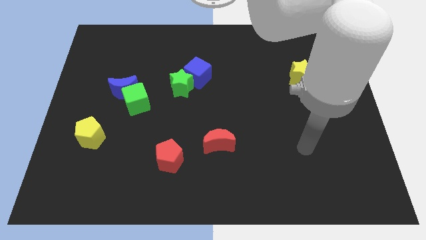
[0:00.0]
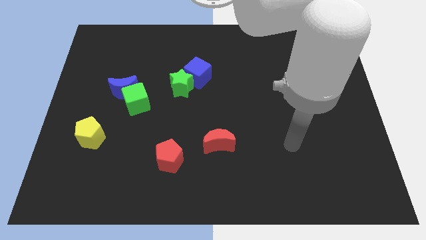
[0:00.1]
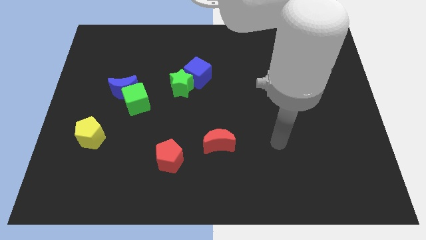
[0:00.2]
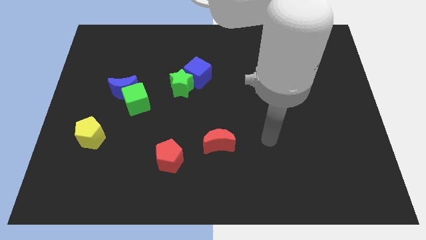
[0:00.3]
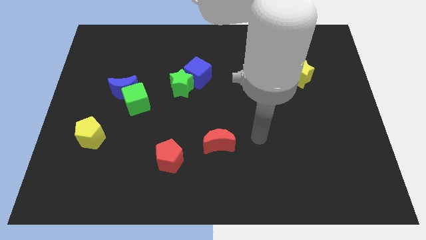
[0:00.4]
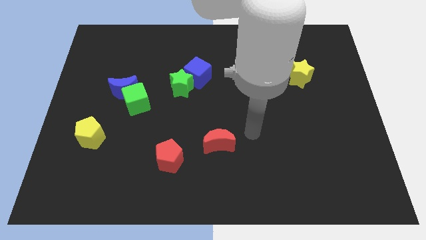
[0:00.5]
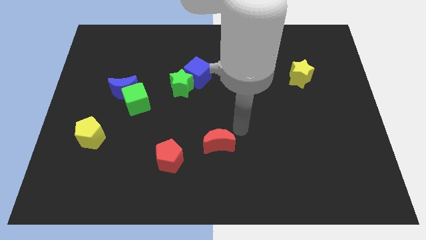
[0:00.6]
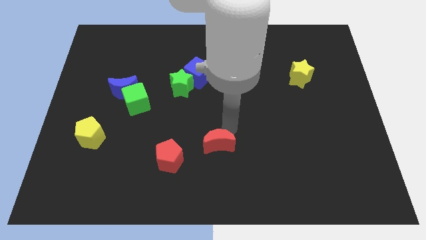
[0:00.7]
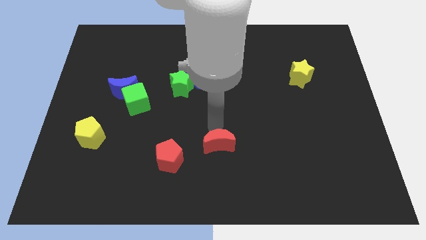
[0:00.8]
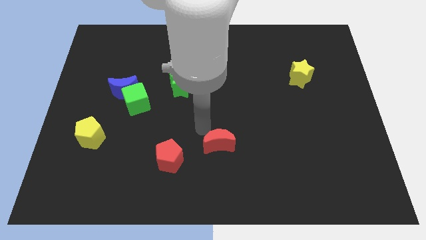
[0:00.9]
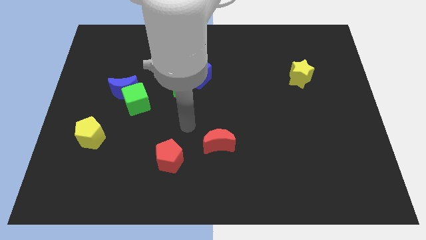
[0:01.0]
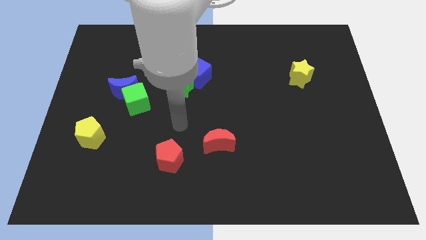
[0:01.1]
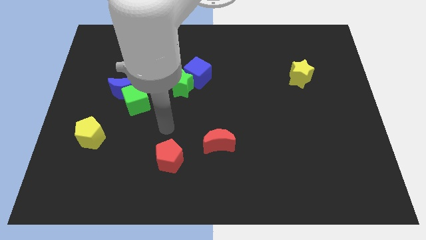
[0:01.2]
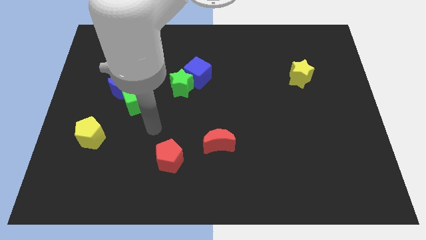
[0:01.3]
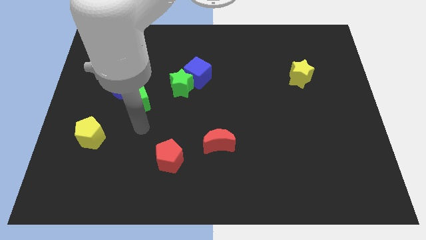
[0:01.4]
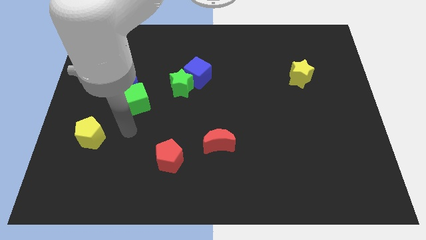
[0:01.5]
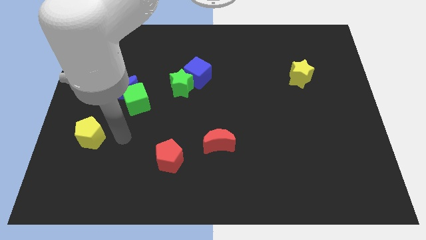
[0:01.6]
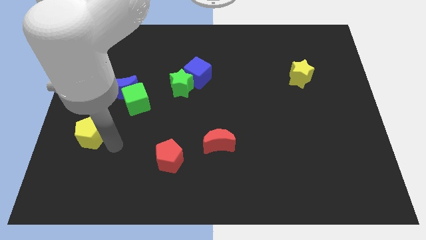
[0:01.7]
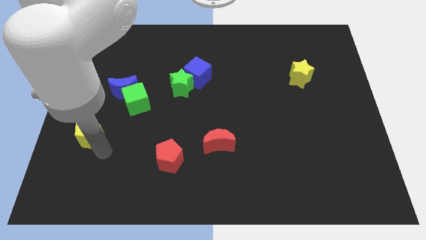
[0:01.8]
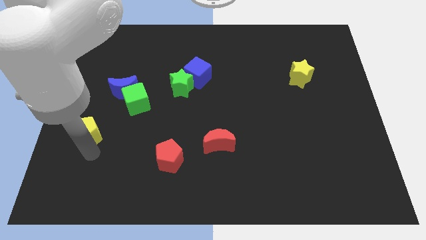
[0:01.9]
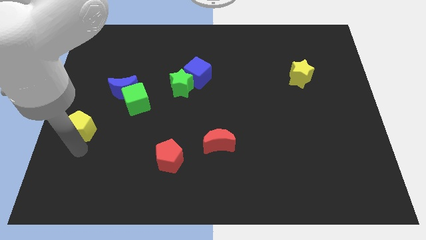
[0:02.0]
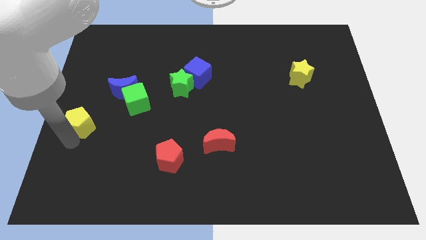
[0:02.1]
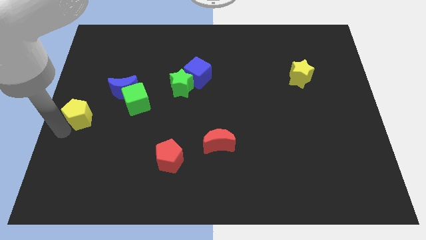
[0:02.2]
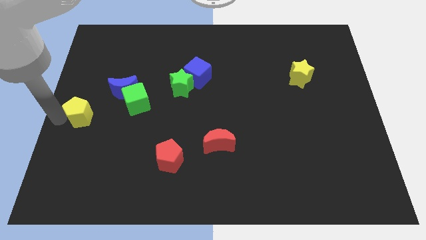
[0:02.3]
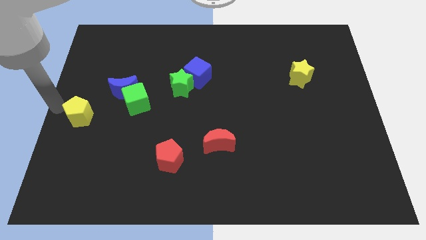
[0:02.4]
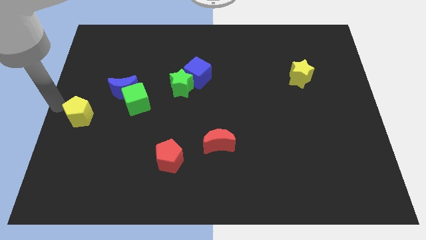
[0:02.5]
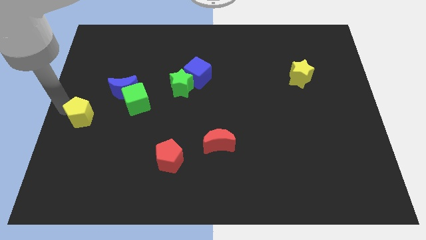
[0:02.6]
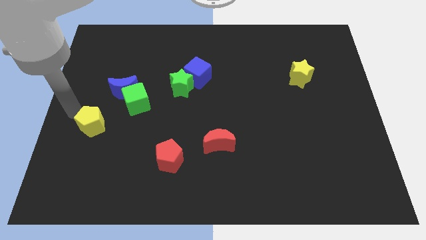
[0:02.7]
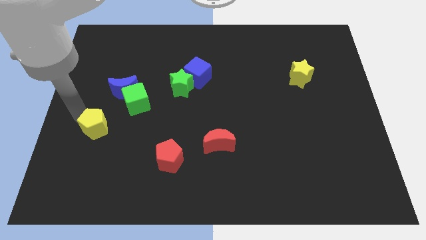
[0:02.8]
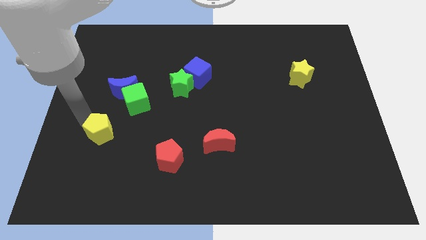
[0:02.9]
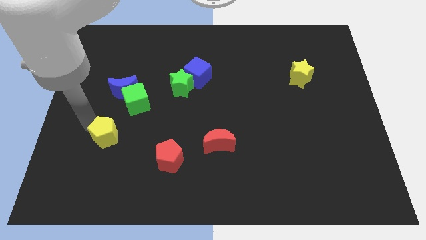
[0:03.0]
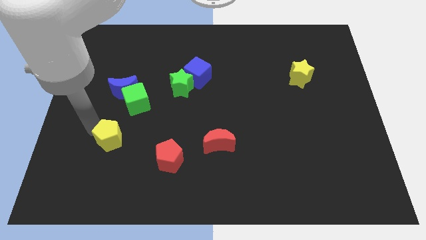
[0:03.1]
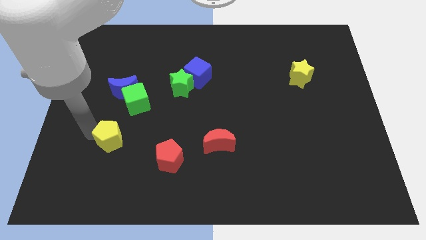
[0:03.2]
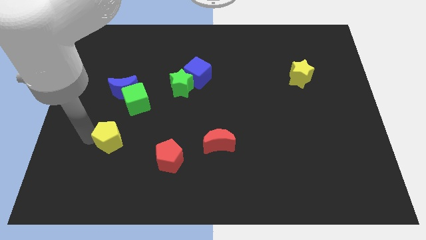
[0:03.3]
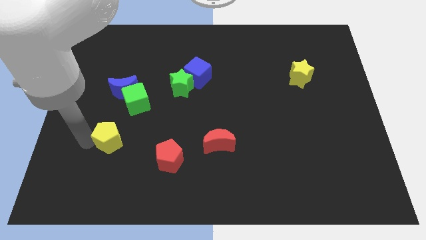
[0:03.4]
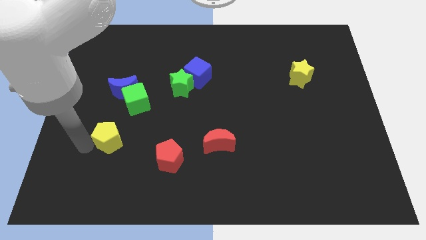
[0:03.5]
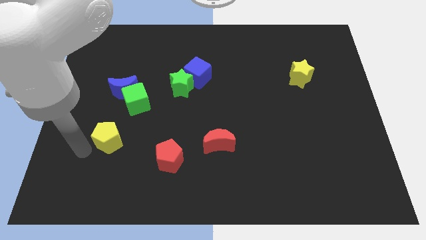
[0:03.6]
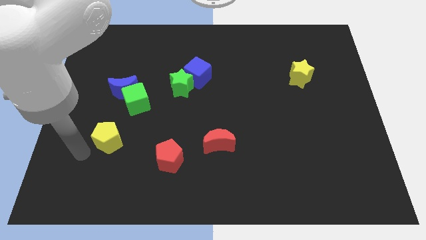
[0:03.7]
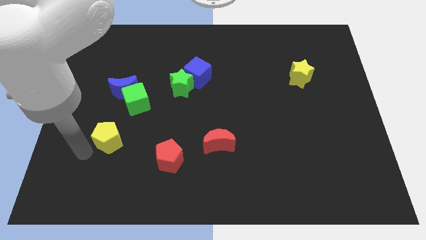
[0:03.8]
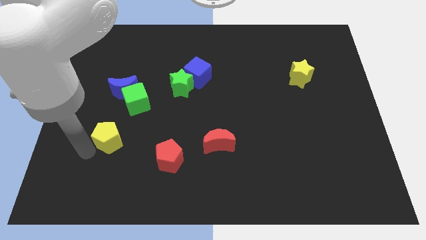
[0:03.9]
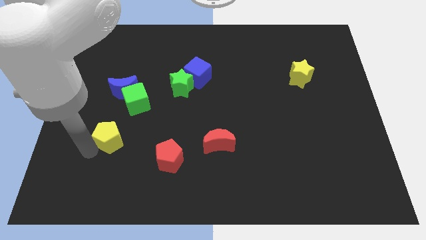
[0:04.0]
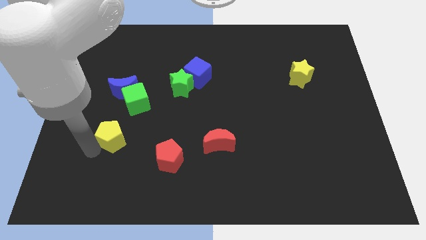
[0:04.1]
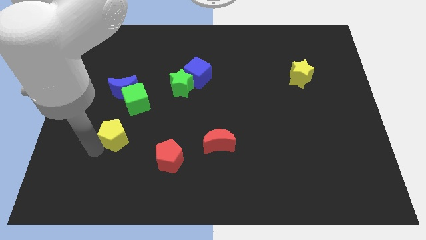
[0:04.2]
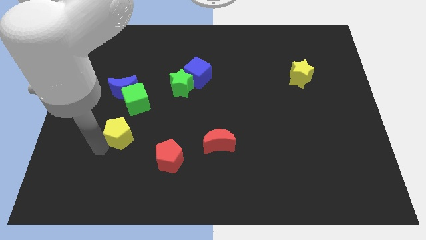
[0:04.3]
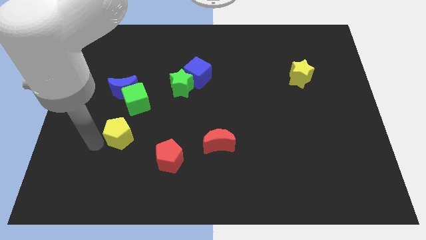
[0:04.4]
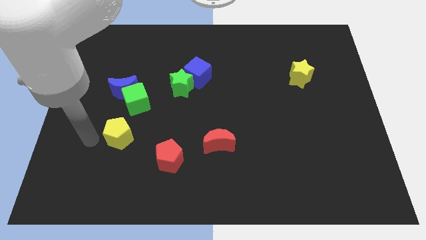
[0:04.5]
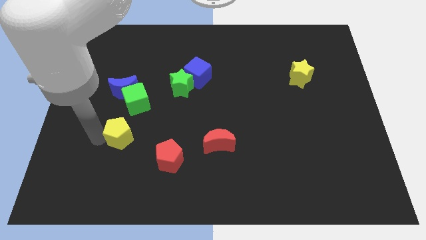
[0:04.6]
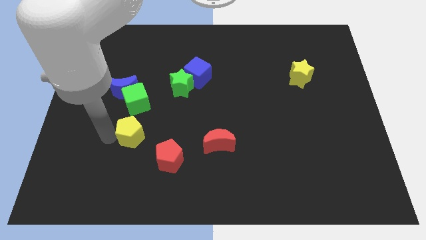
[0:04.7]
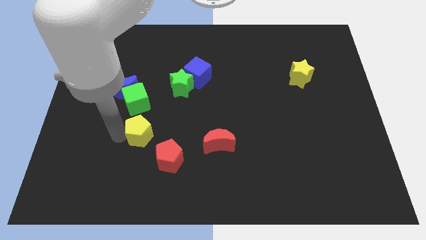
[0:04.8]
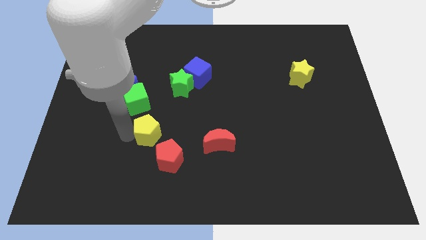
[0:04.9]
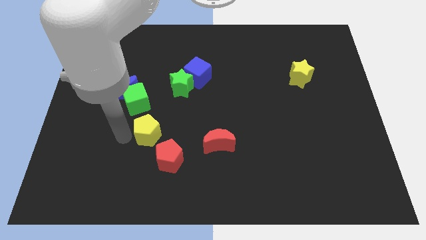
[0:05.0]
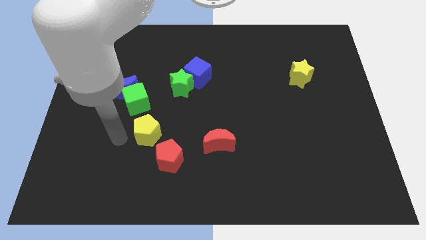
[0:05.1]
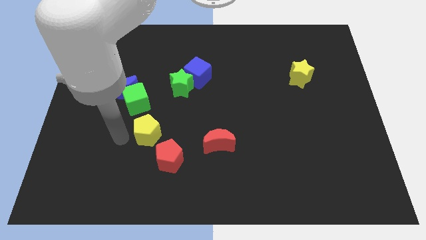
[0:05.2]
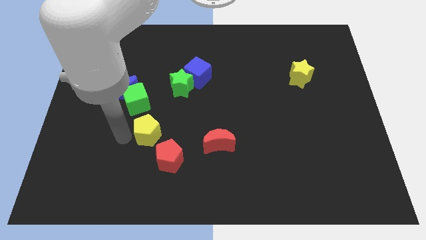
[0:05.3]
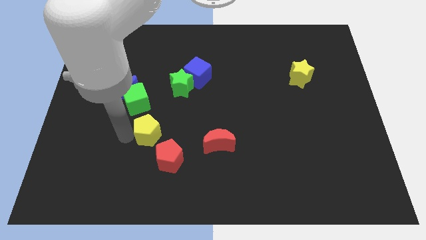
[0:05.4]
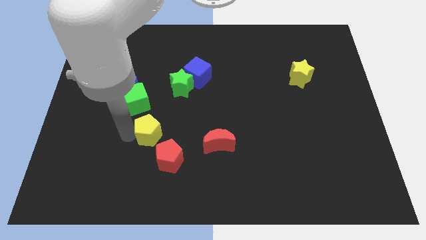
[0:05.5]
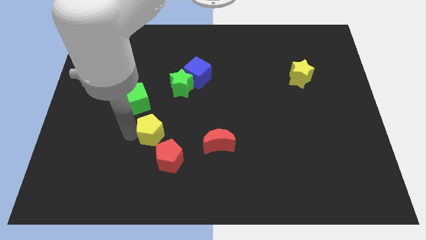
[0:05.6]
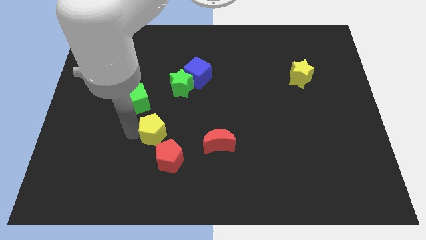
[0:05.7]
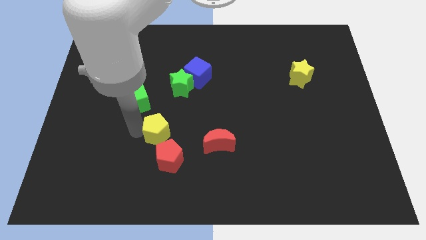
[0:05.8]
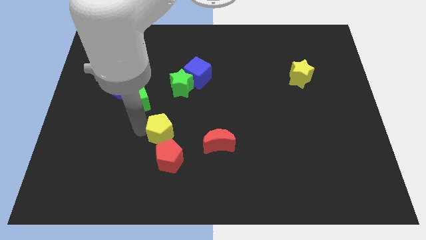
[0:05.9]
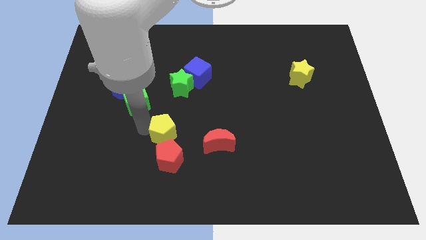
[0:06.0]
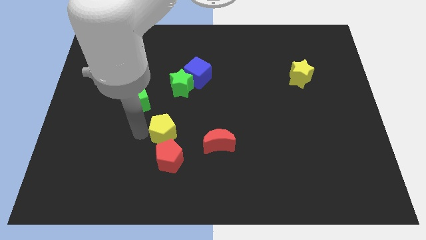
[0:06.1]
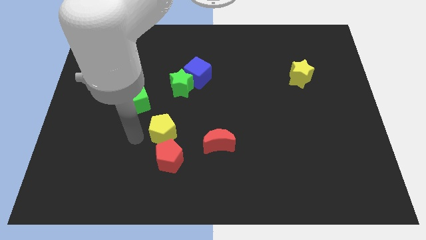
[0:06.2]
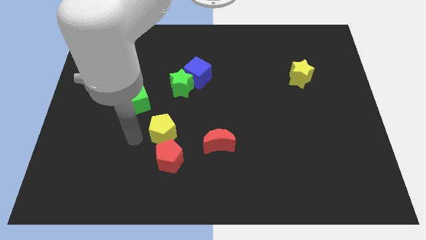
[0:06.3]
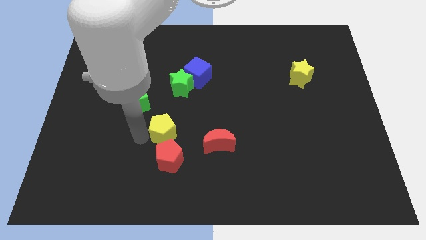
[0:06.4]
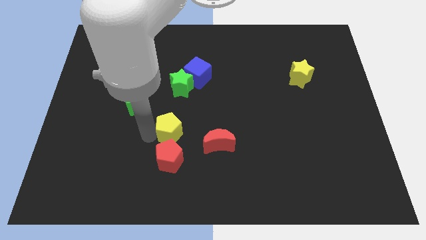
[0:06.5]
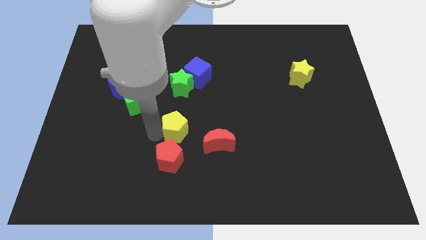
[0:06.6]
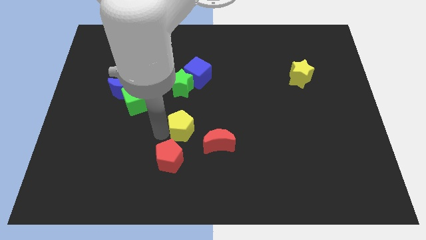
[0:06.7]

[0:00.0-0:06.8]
move the yellow pentagon right

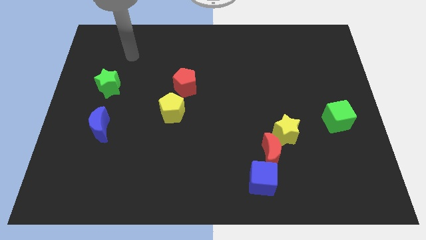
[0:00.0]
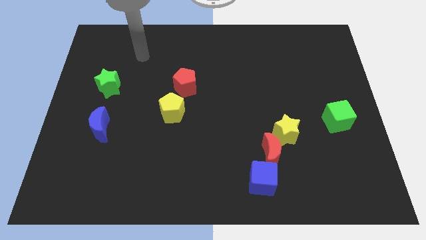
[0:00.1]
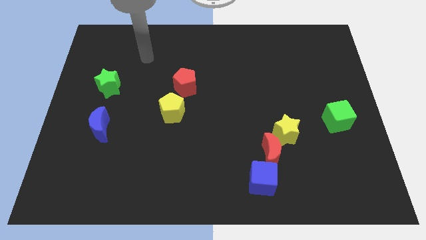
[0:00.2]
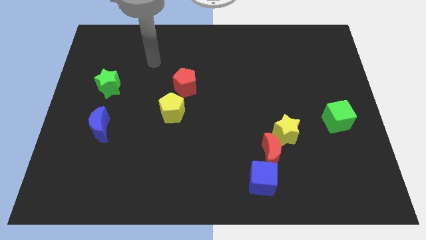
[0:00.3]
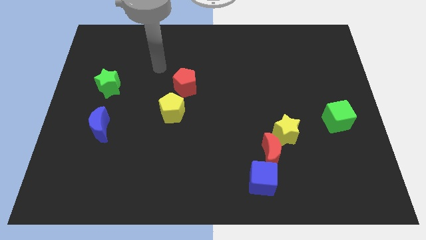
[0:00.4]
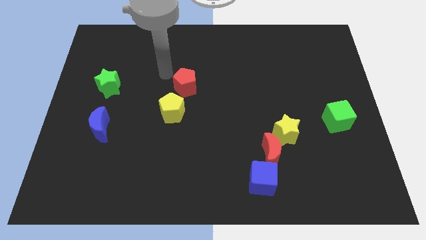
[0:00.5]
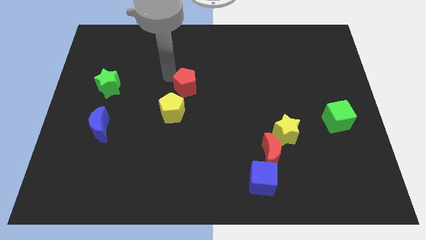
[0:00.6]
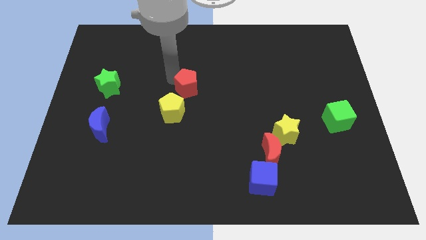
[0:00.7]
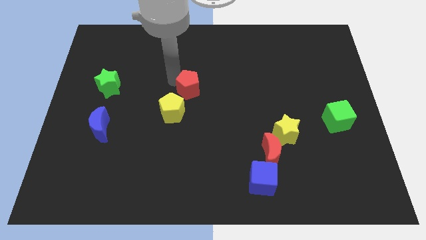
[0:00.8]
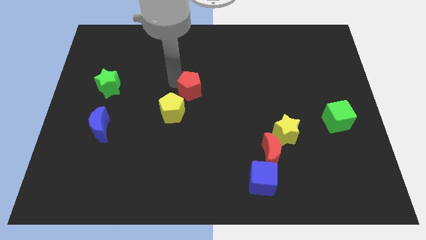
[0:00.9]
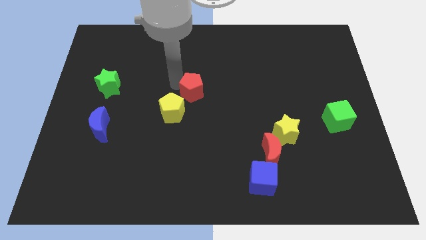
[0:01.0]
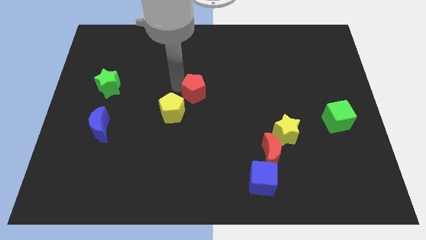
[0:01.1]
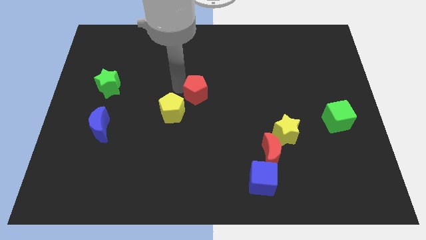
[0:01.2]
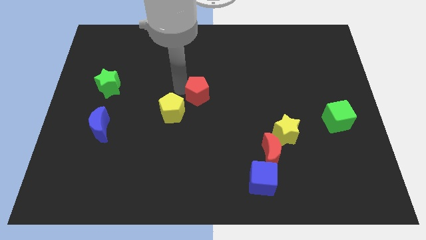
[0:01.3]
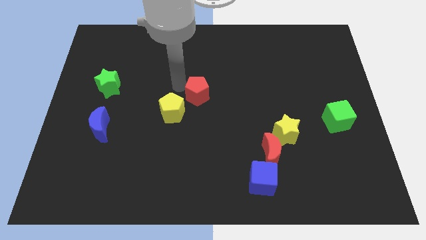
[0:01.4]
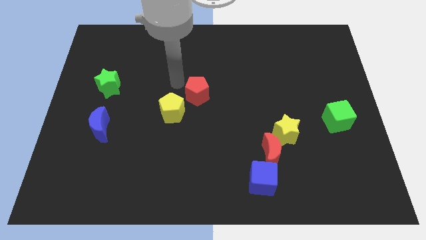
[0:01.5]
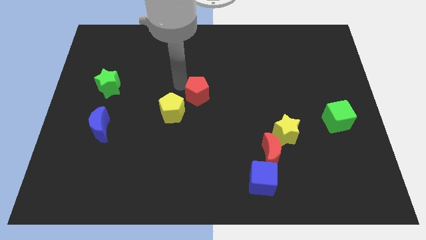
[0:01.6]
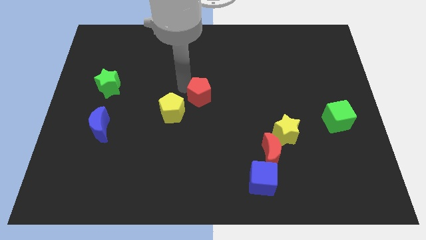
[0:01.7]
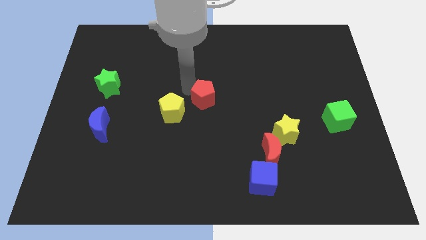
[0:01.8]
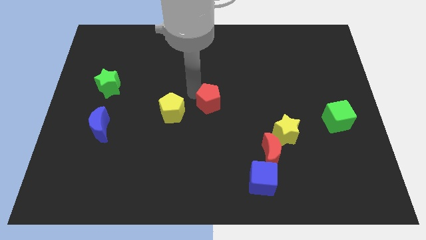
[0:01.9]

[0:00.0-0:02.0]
push the red pentagon downwards and right diagonally a little
